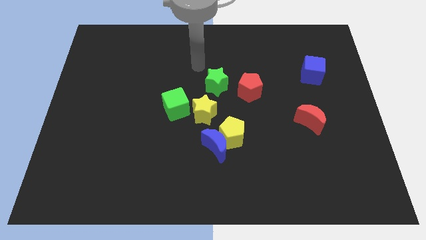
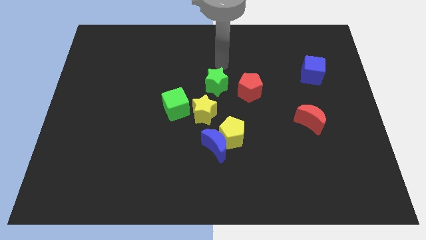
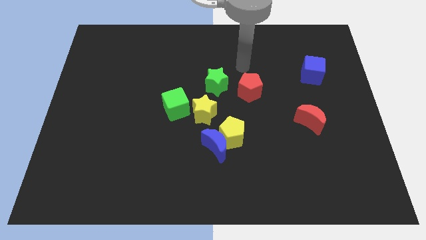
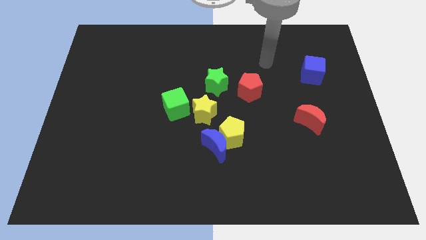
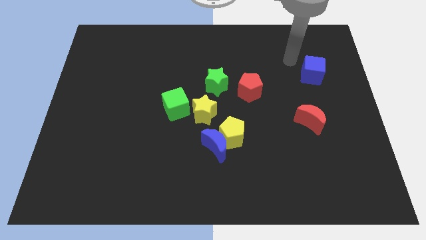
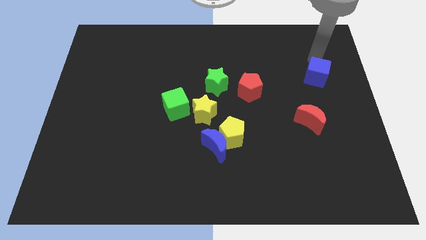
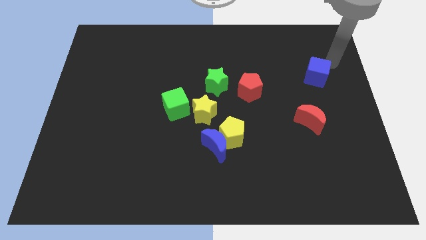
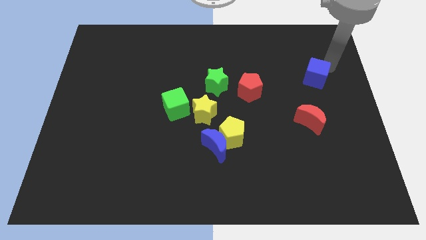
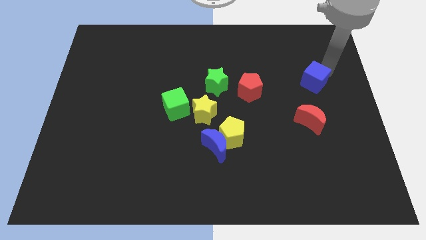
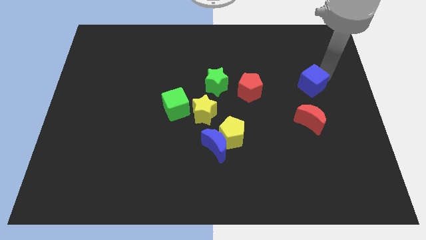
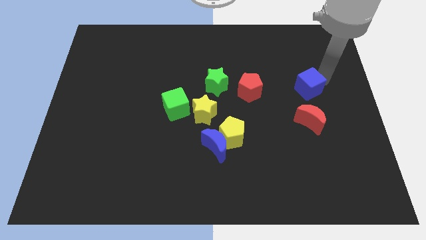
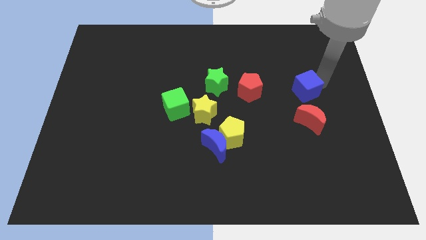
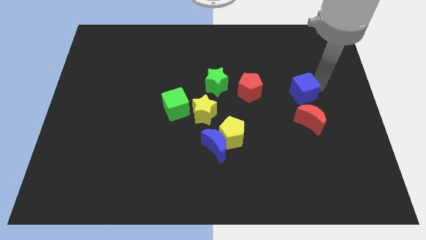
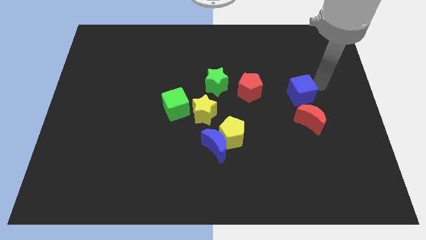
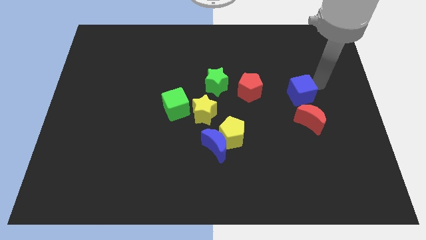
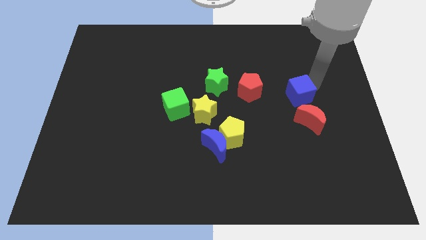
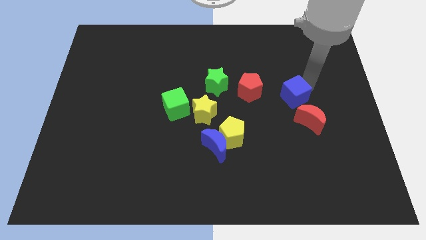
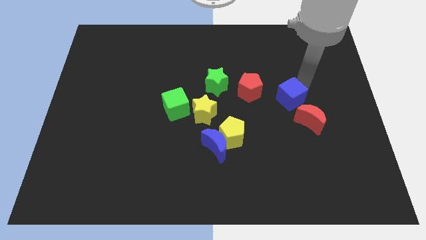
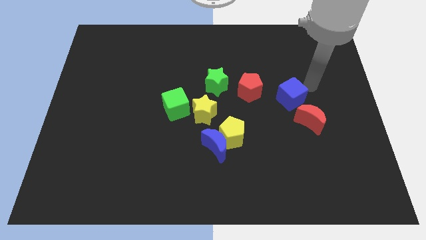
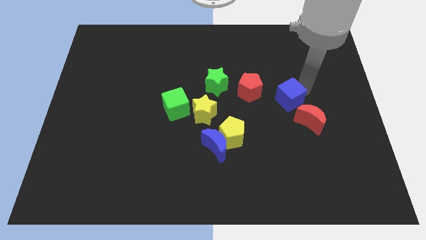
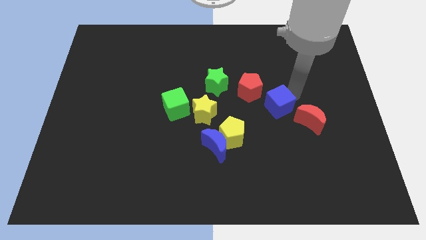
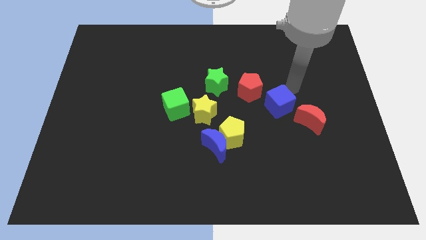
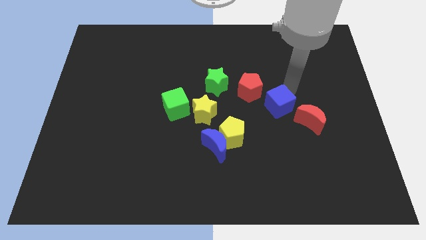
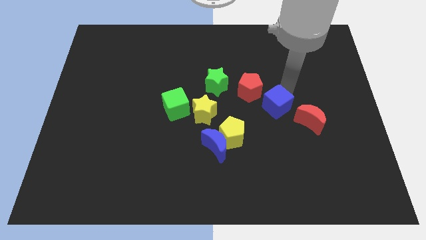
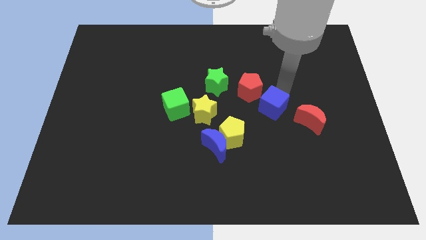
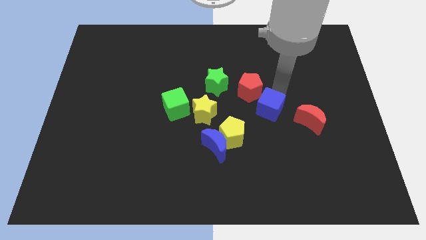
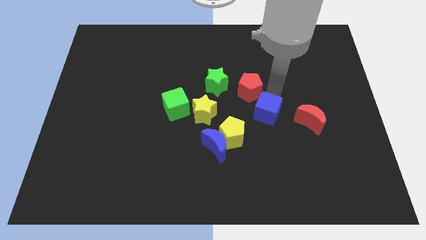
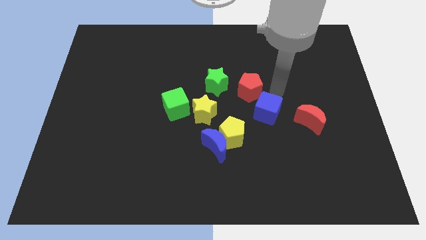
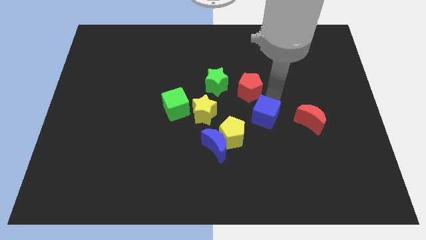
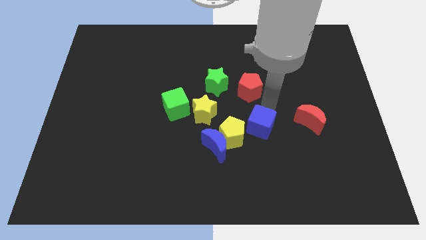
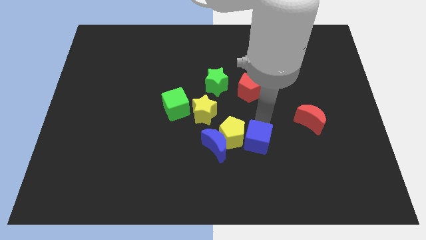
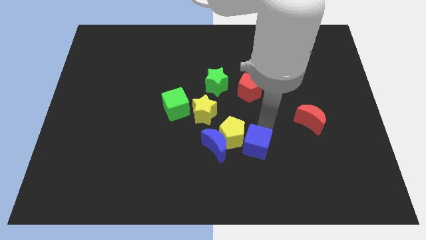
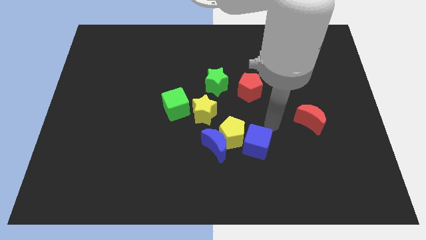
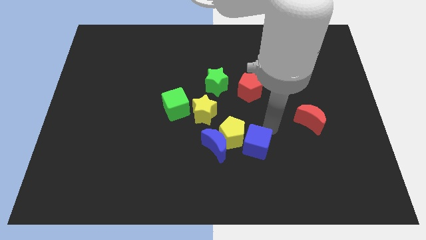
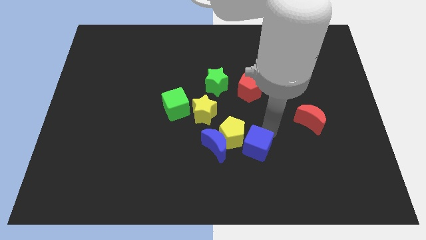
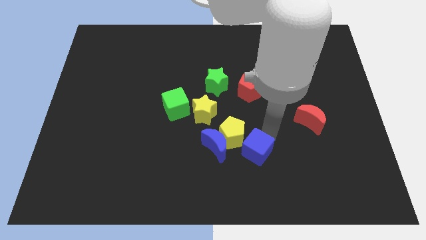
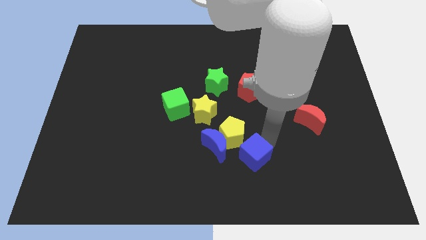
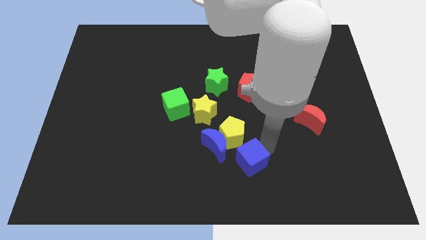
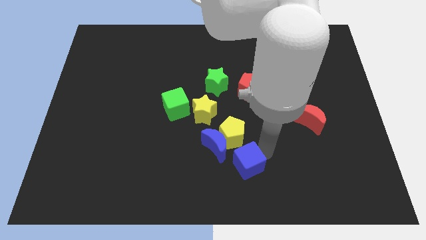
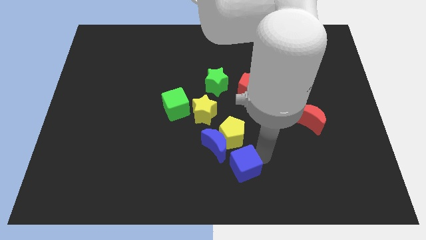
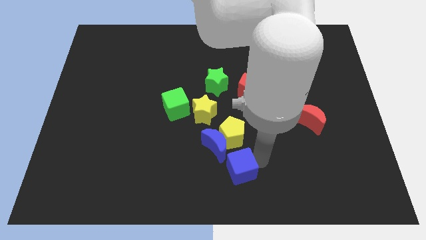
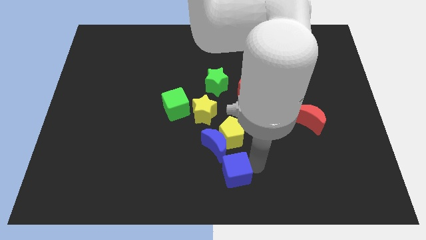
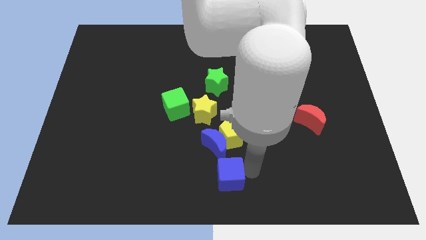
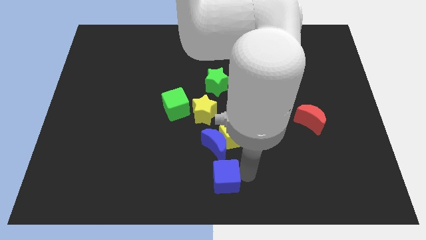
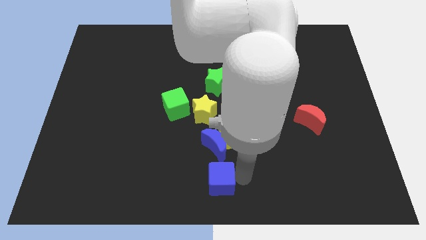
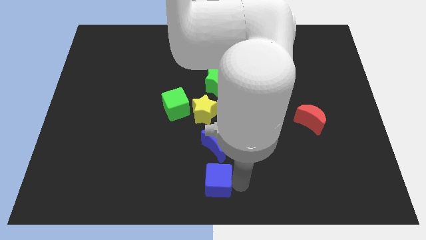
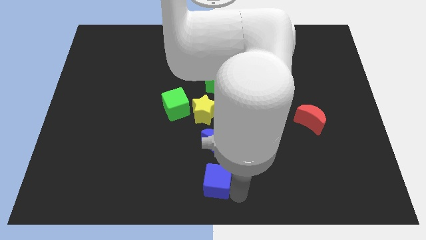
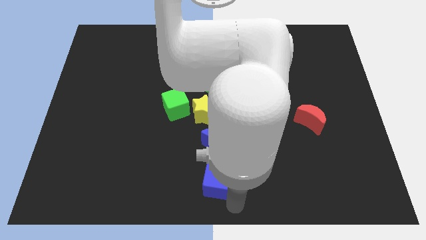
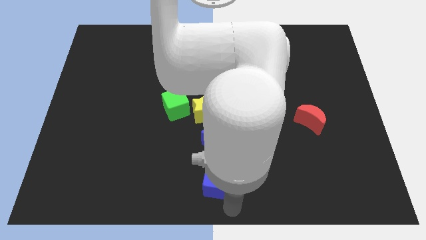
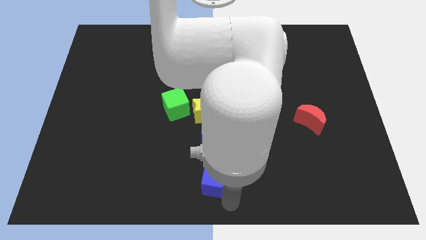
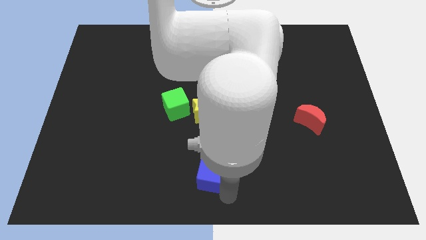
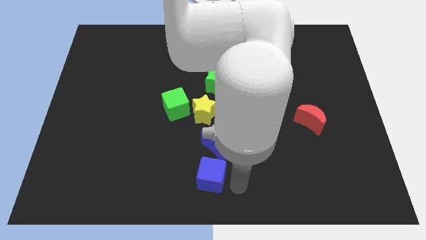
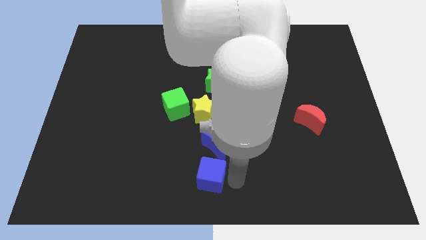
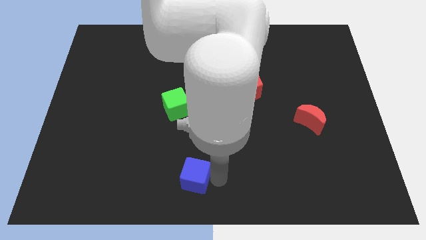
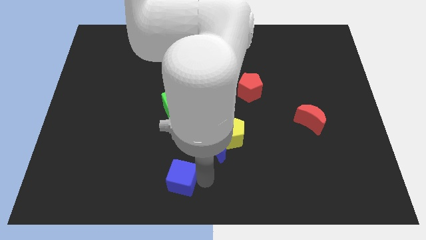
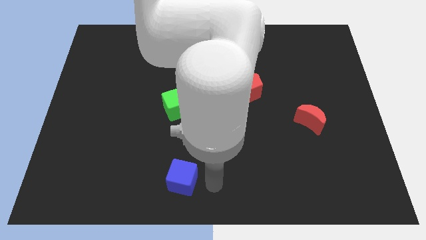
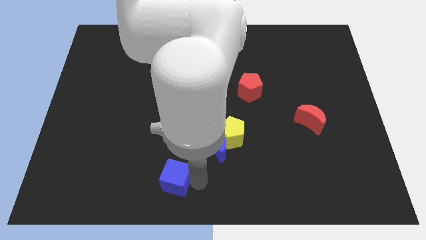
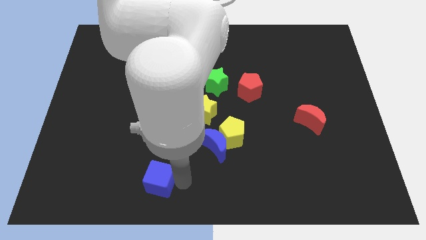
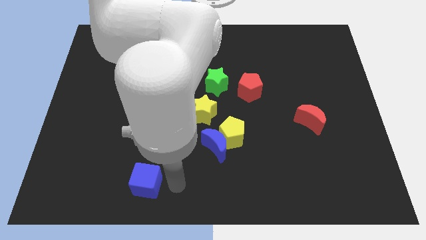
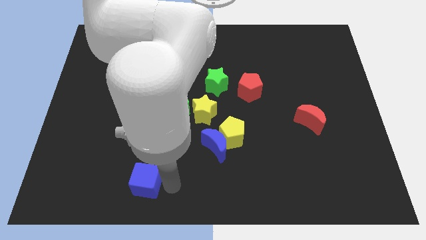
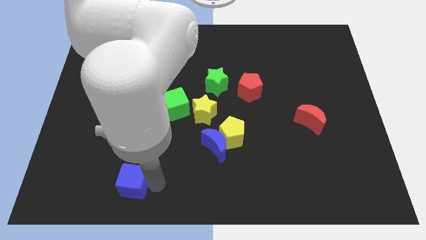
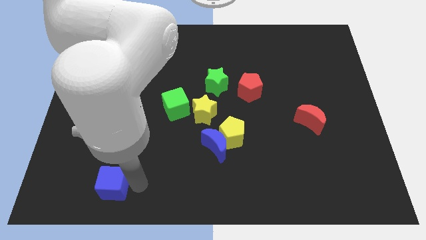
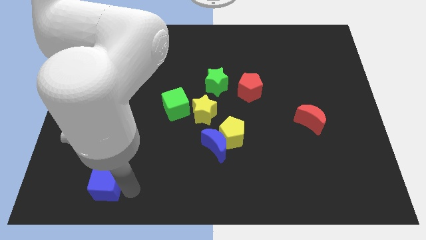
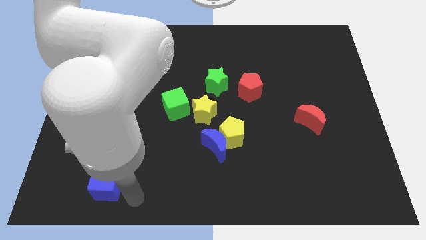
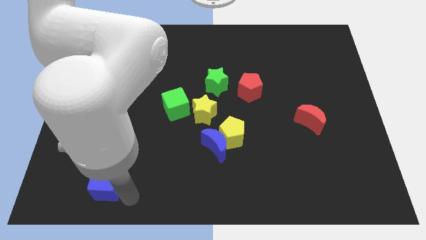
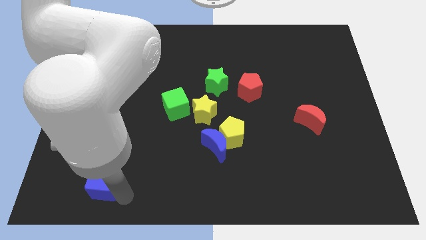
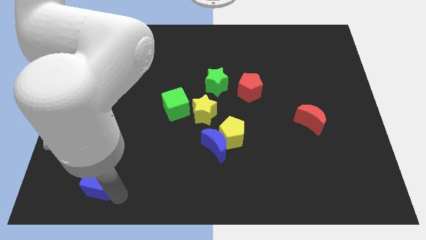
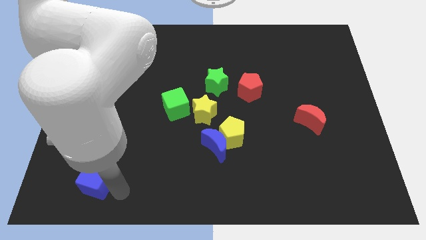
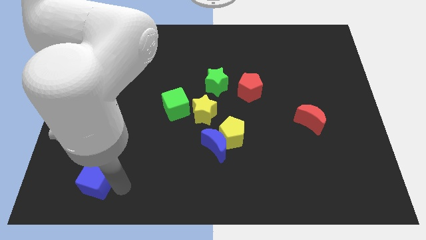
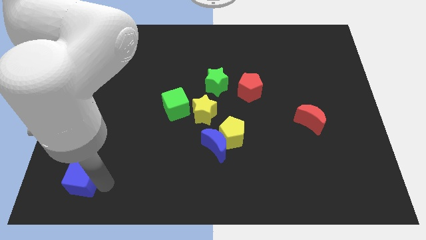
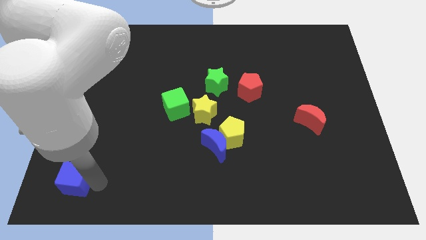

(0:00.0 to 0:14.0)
put the blue cube to the bottom left
